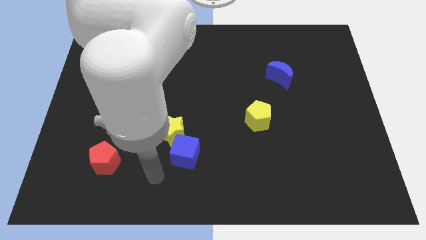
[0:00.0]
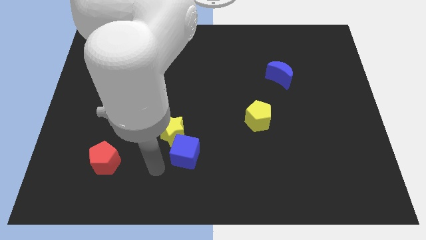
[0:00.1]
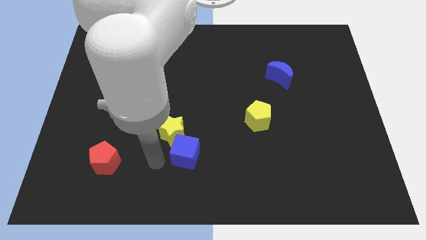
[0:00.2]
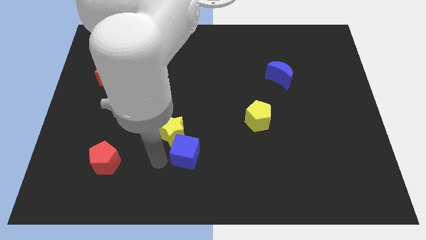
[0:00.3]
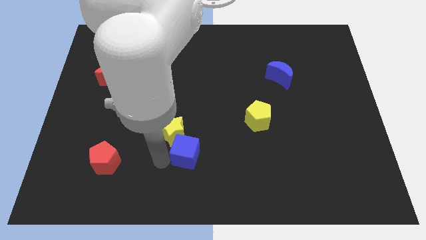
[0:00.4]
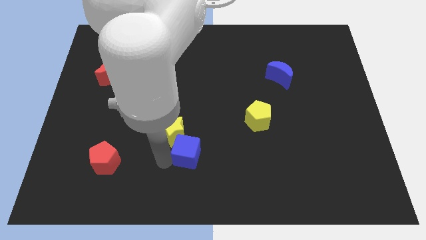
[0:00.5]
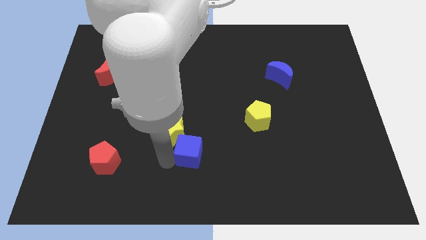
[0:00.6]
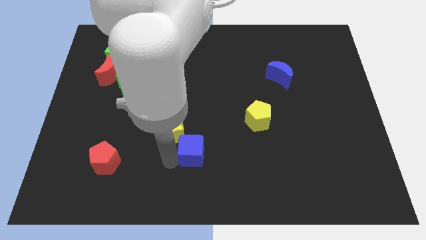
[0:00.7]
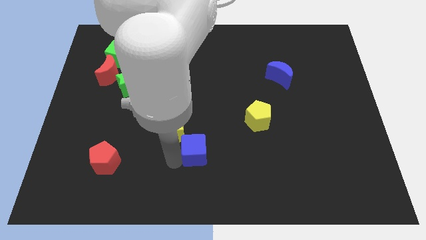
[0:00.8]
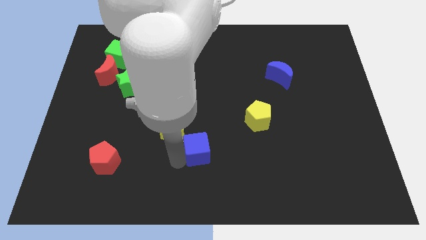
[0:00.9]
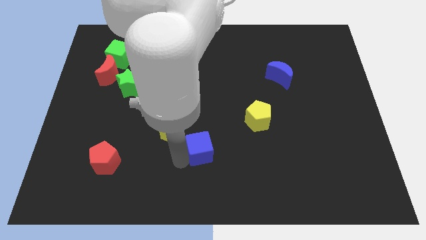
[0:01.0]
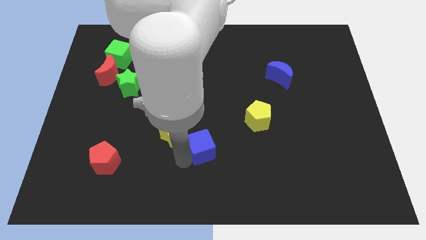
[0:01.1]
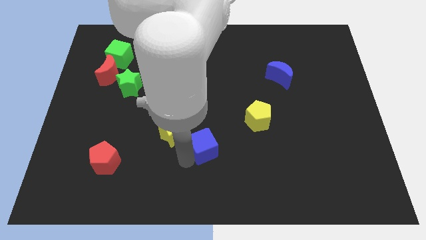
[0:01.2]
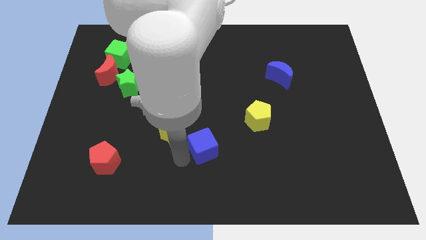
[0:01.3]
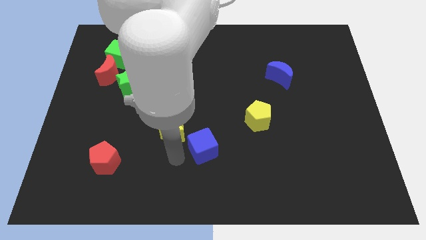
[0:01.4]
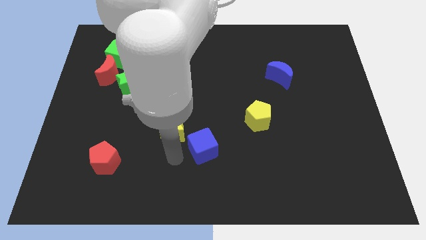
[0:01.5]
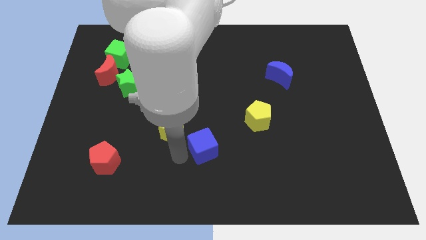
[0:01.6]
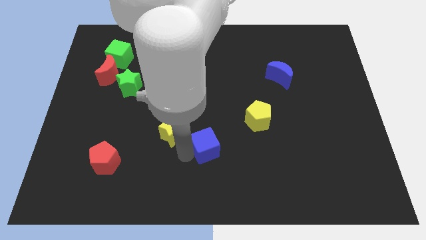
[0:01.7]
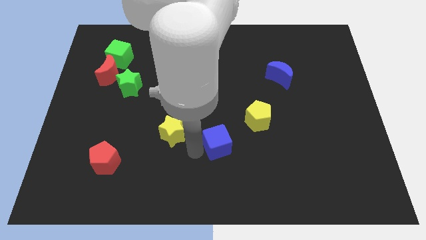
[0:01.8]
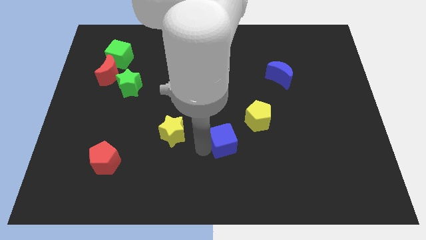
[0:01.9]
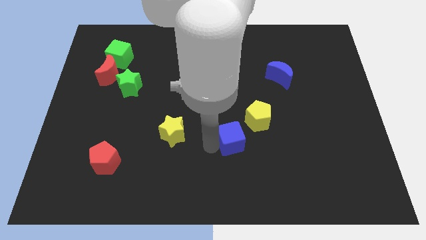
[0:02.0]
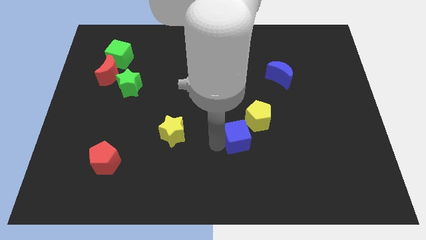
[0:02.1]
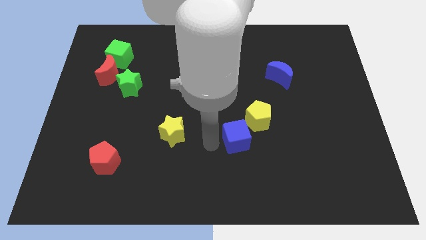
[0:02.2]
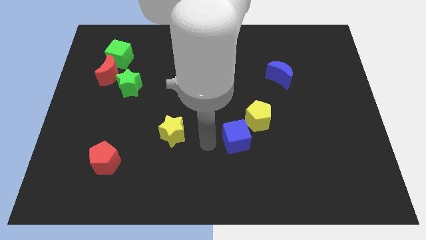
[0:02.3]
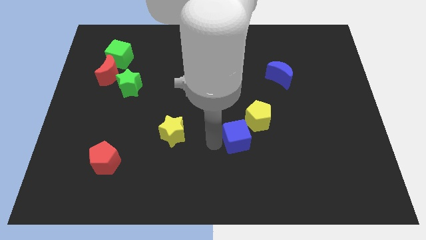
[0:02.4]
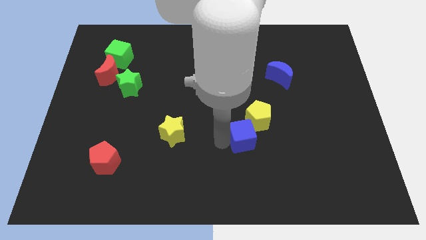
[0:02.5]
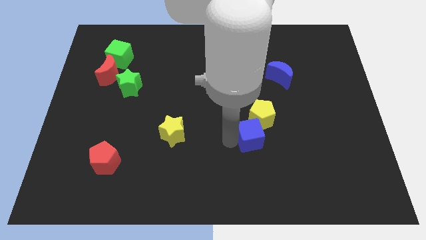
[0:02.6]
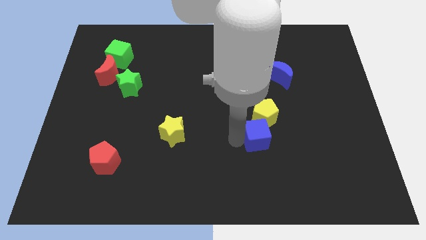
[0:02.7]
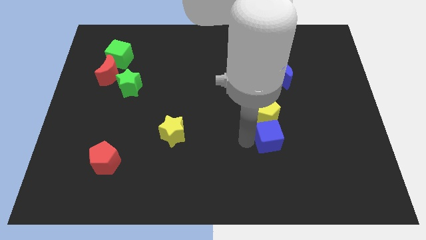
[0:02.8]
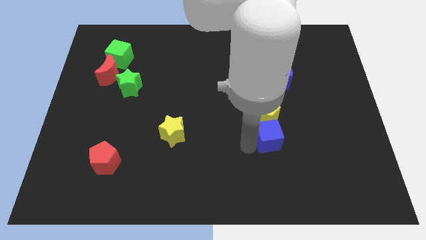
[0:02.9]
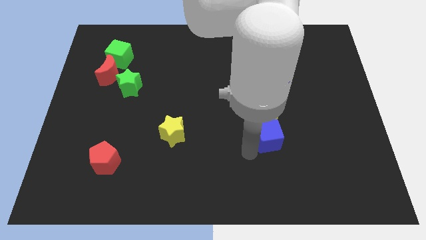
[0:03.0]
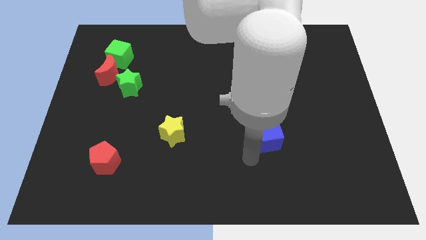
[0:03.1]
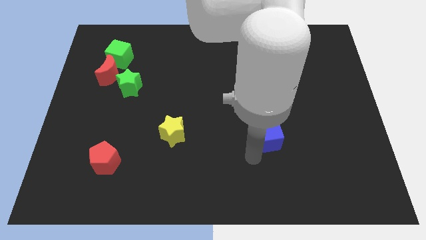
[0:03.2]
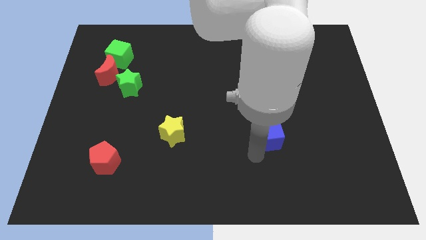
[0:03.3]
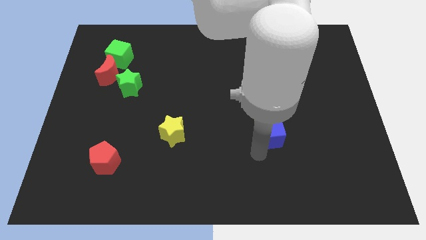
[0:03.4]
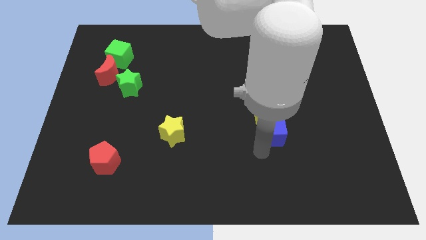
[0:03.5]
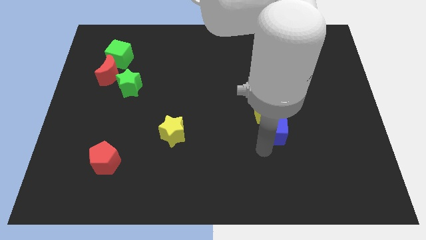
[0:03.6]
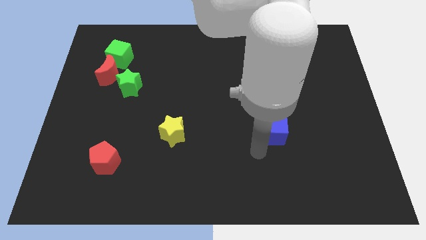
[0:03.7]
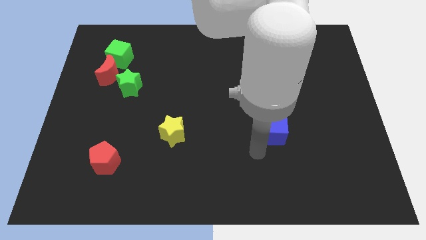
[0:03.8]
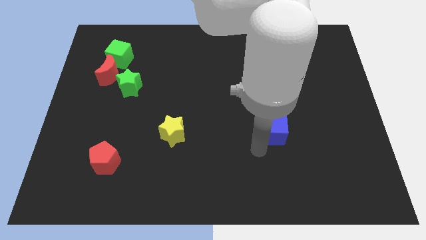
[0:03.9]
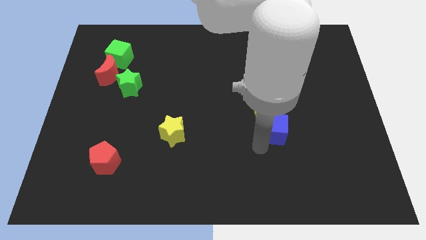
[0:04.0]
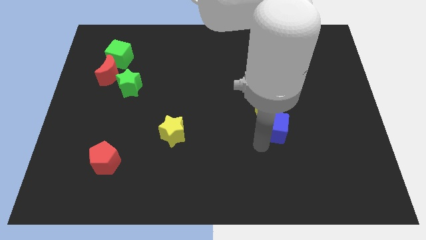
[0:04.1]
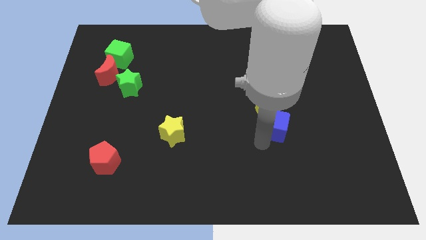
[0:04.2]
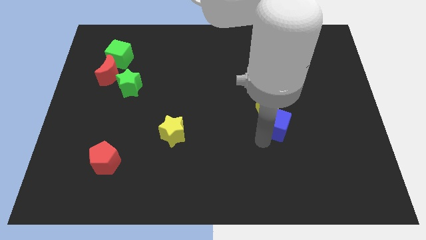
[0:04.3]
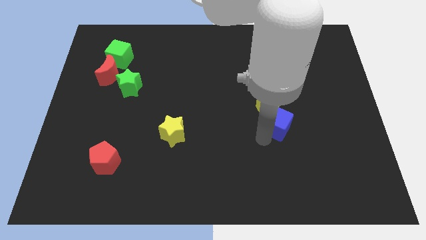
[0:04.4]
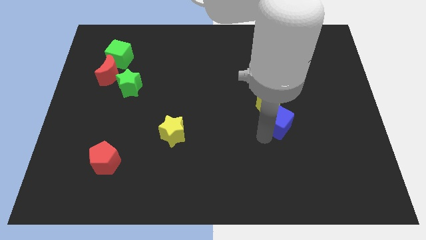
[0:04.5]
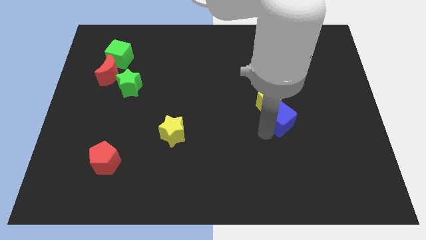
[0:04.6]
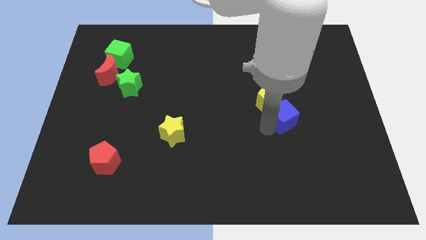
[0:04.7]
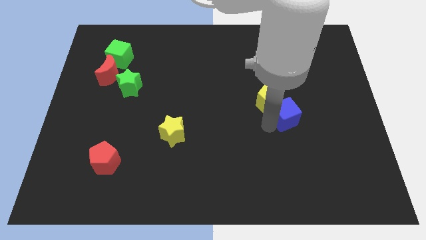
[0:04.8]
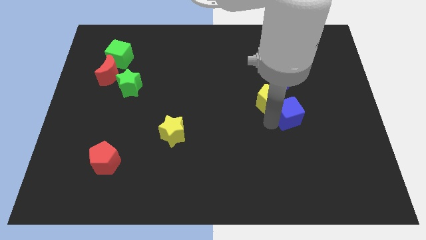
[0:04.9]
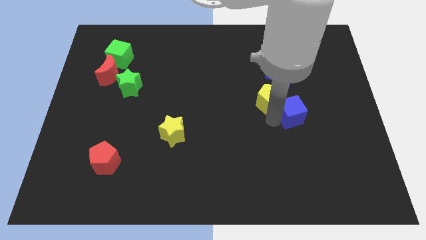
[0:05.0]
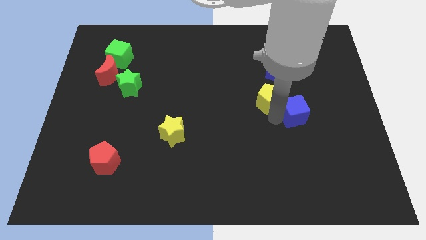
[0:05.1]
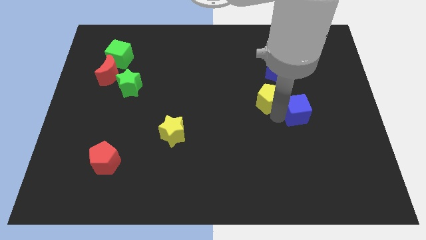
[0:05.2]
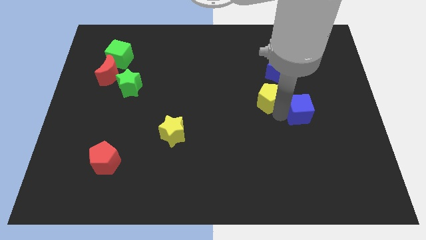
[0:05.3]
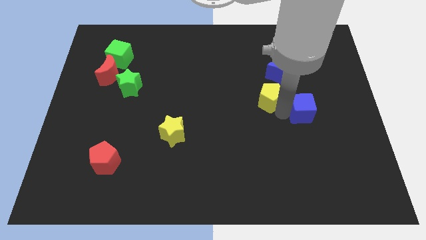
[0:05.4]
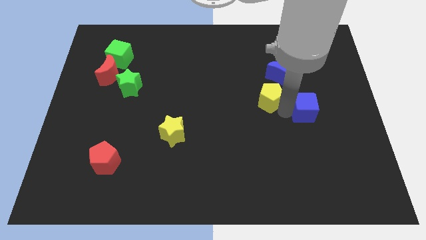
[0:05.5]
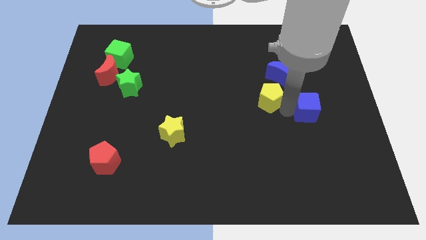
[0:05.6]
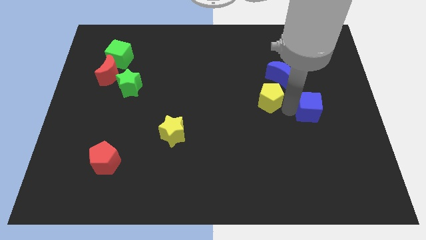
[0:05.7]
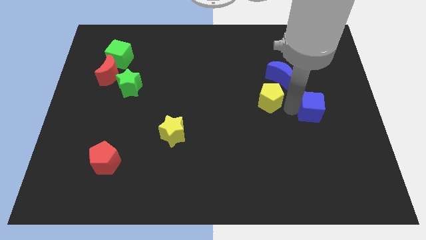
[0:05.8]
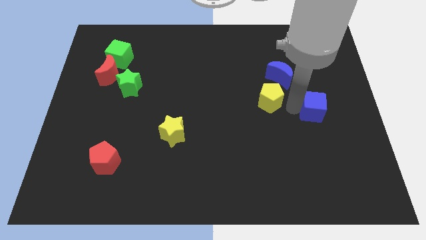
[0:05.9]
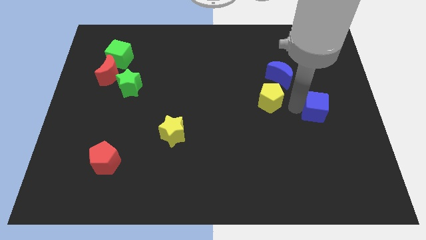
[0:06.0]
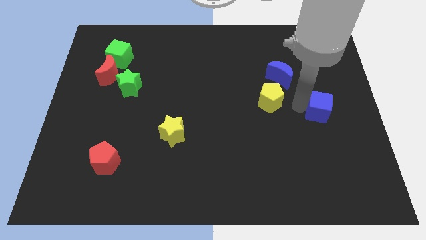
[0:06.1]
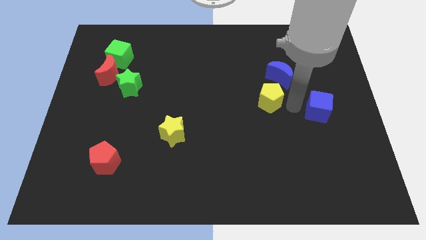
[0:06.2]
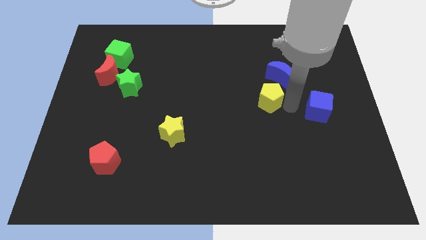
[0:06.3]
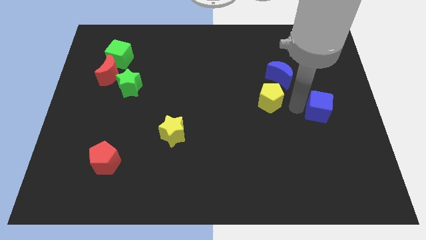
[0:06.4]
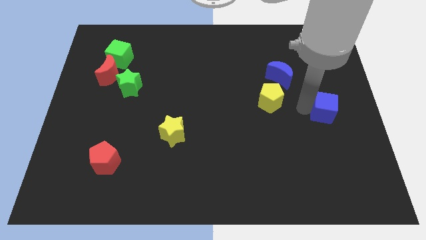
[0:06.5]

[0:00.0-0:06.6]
move the blue cube to the right side of the board
